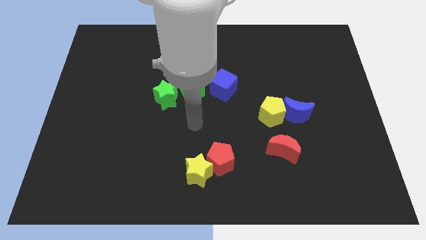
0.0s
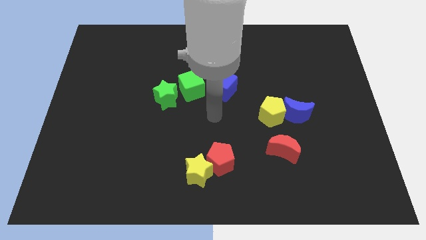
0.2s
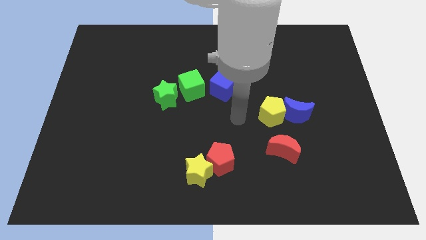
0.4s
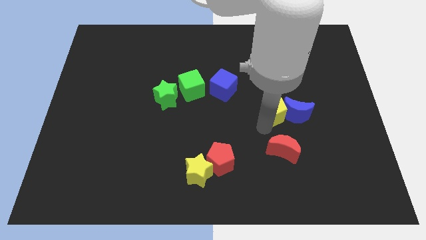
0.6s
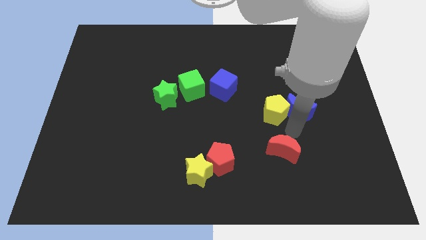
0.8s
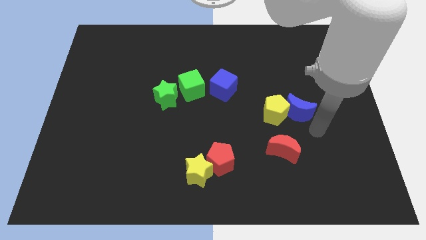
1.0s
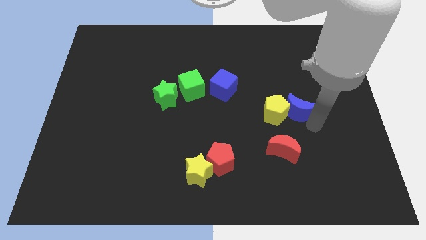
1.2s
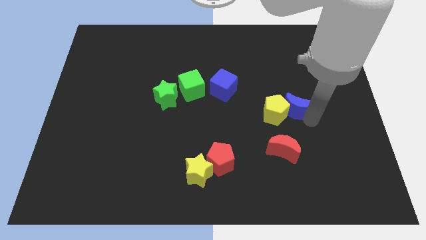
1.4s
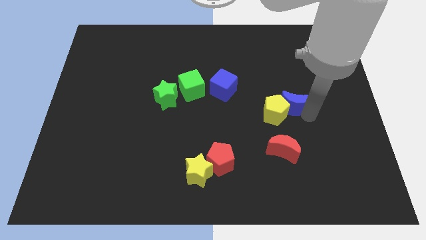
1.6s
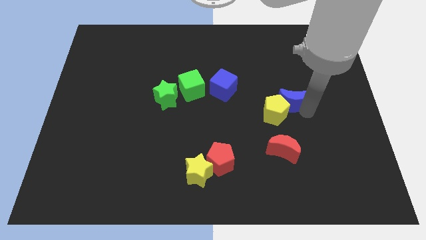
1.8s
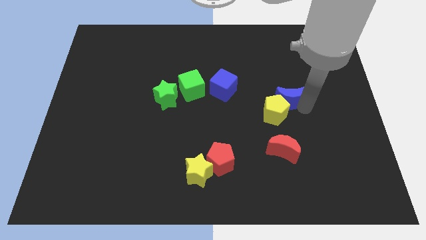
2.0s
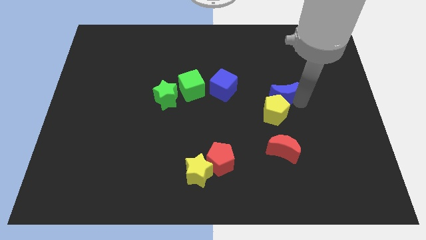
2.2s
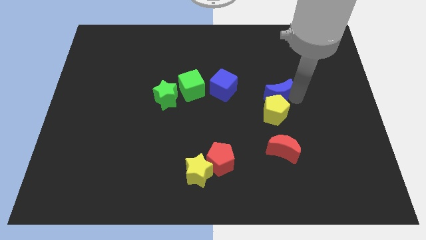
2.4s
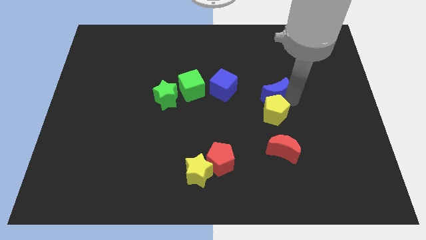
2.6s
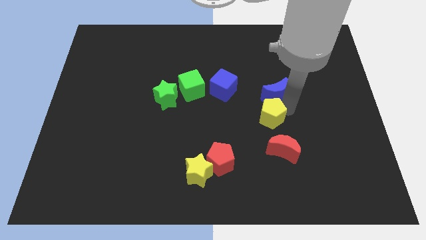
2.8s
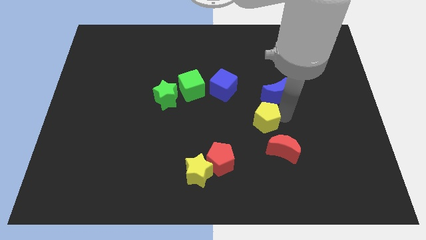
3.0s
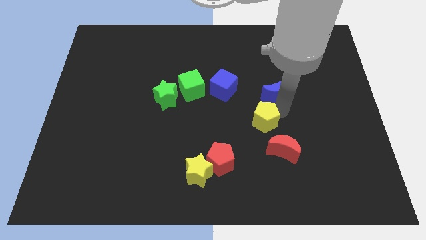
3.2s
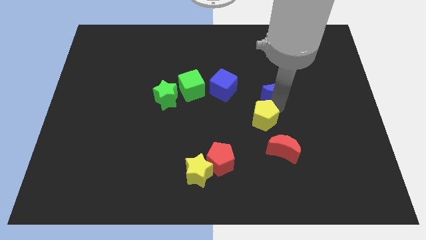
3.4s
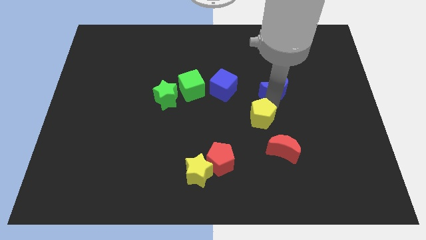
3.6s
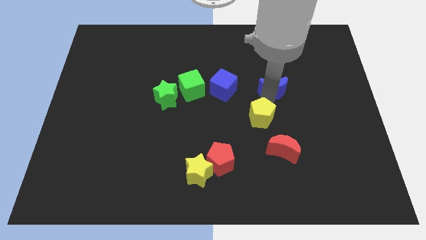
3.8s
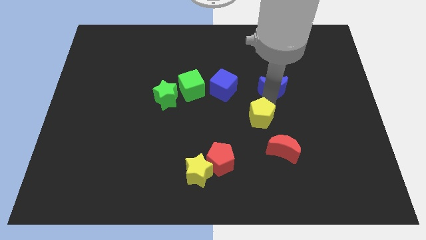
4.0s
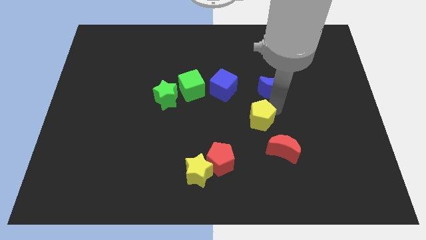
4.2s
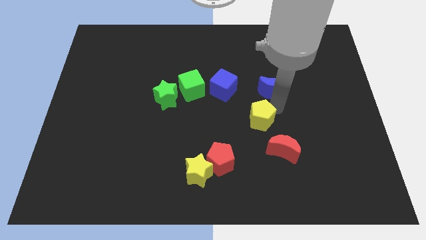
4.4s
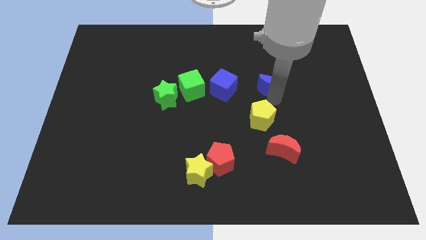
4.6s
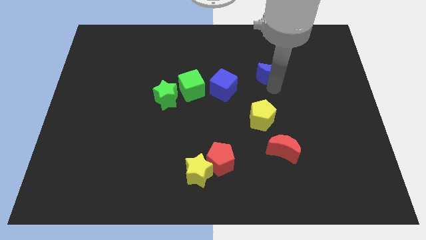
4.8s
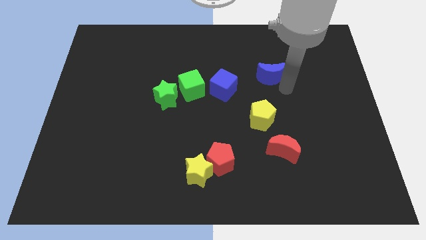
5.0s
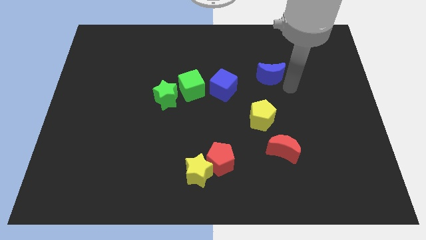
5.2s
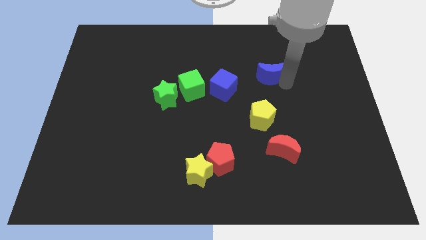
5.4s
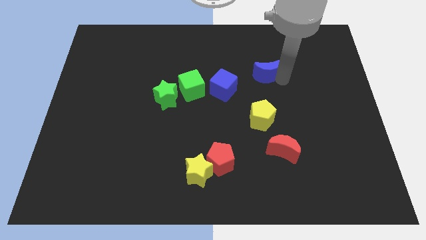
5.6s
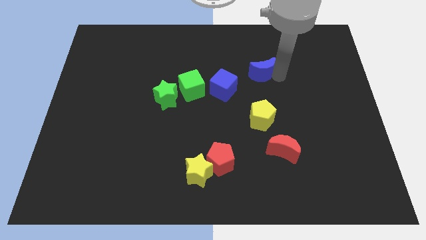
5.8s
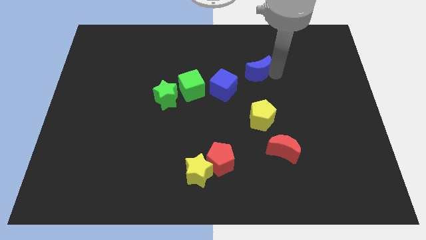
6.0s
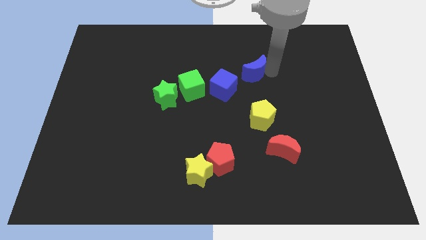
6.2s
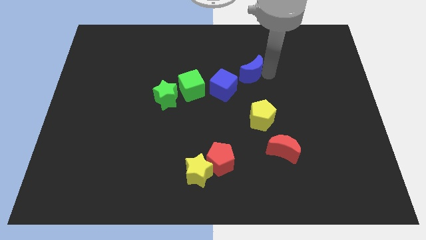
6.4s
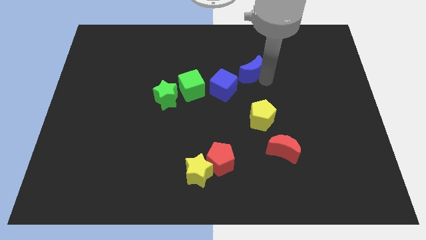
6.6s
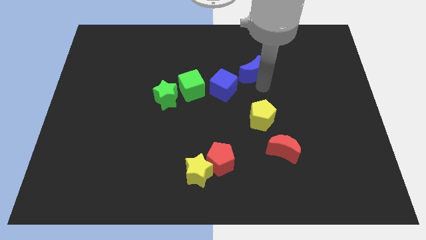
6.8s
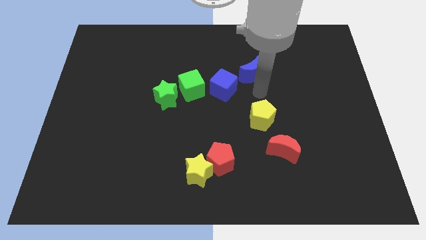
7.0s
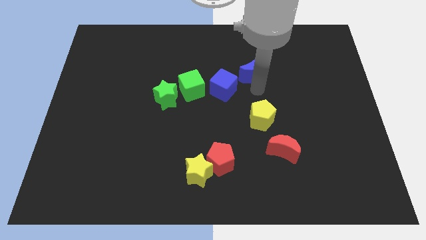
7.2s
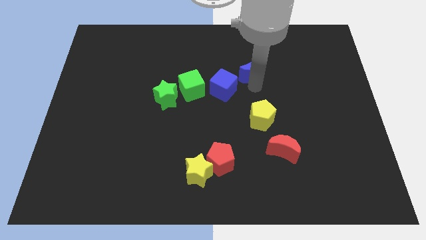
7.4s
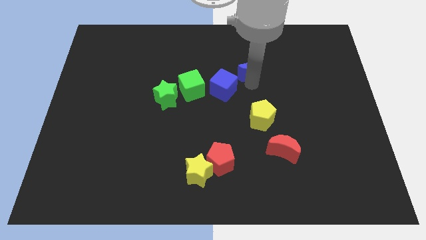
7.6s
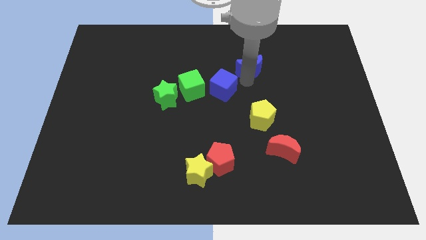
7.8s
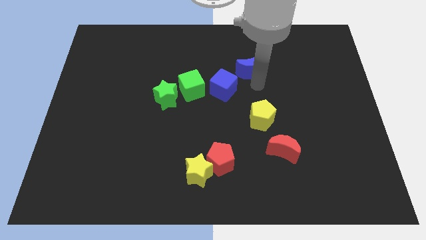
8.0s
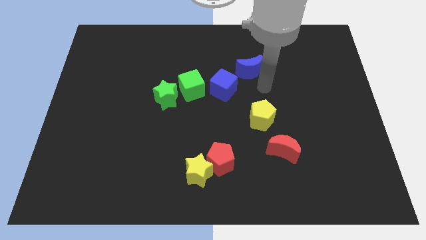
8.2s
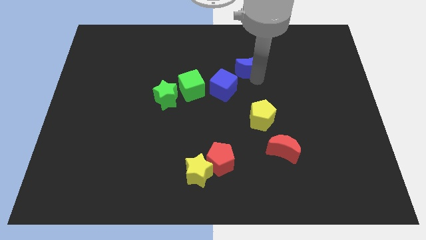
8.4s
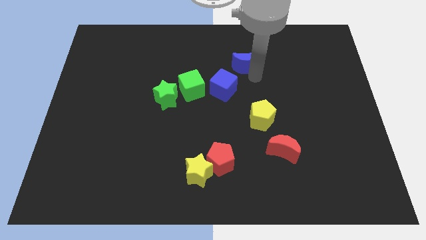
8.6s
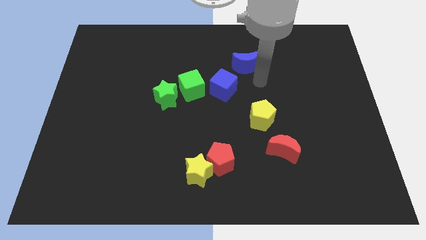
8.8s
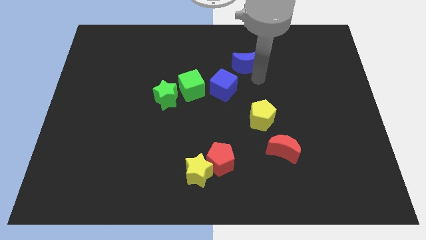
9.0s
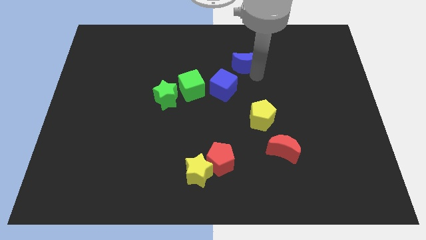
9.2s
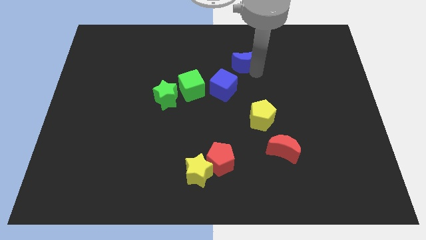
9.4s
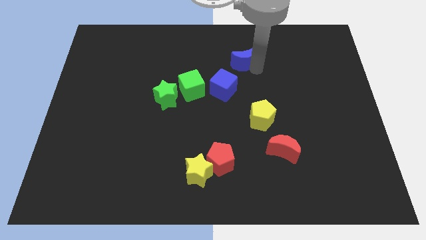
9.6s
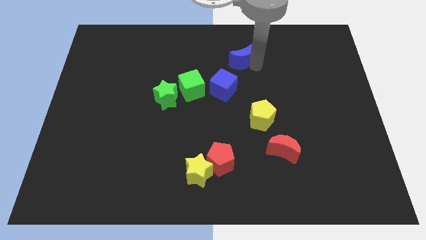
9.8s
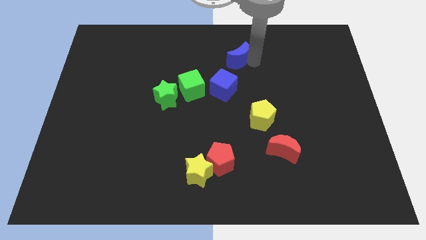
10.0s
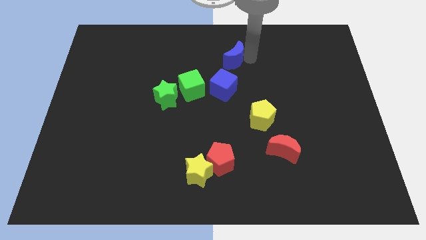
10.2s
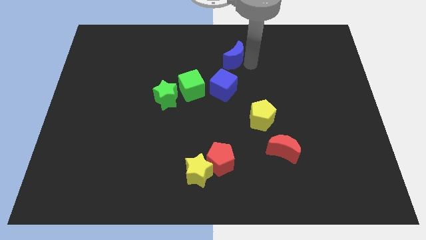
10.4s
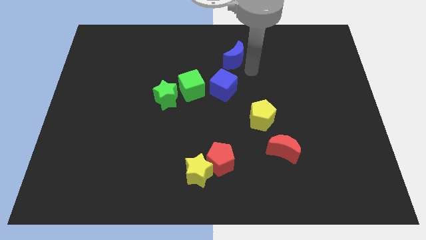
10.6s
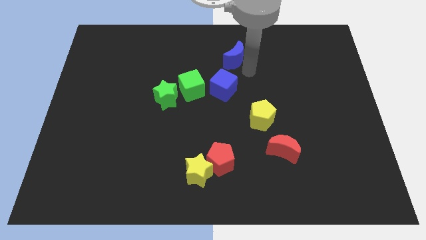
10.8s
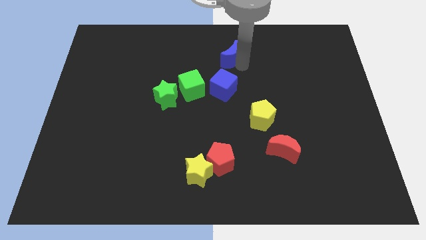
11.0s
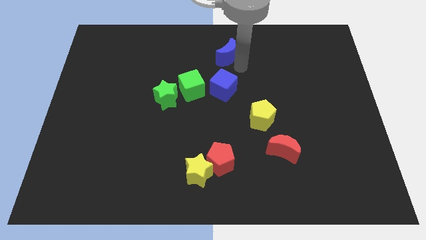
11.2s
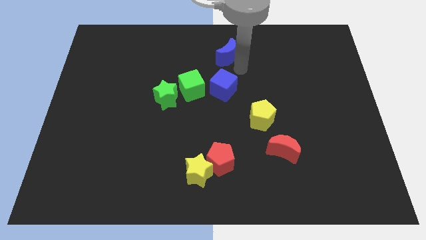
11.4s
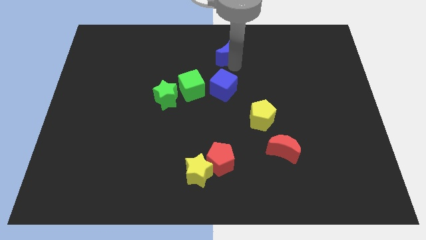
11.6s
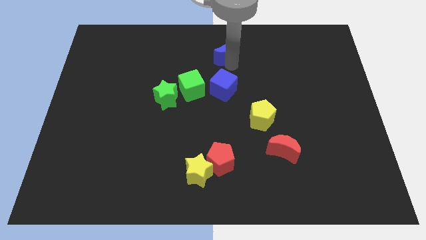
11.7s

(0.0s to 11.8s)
slide the blue moon to the top
